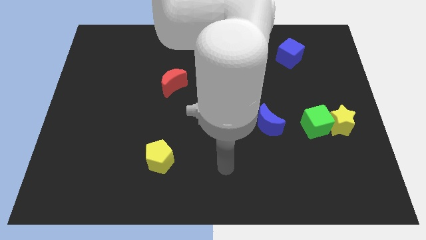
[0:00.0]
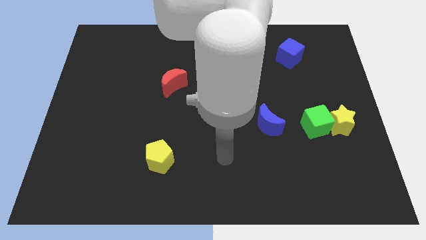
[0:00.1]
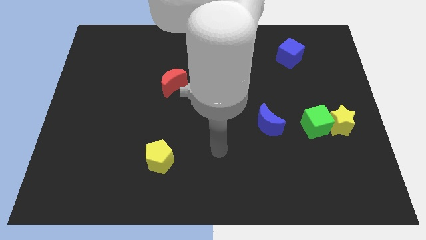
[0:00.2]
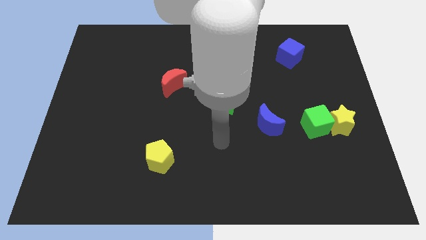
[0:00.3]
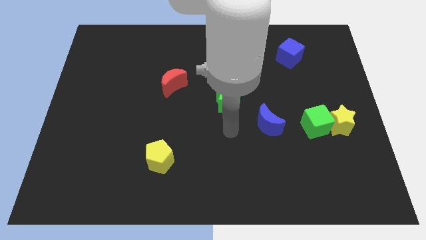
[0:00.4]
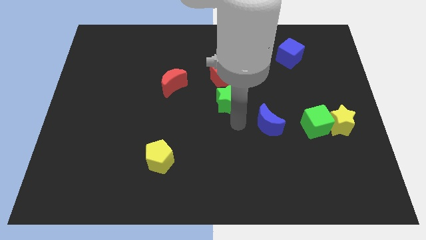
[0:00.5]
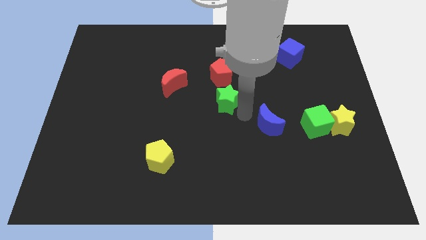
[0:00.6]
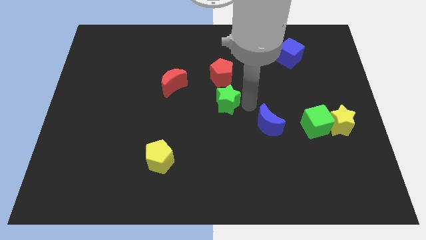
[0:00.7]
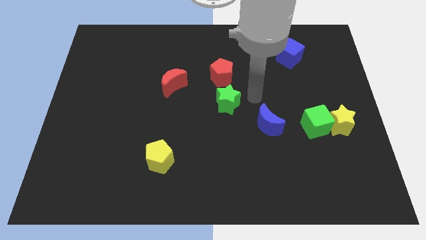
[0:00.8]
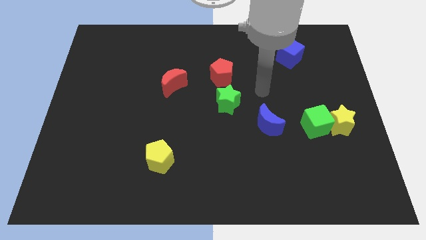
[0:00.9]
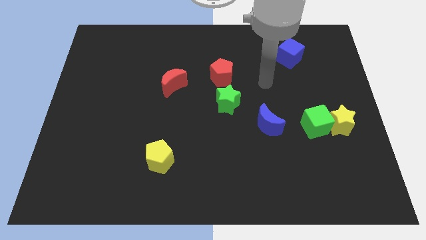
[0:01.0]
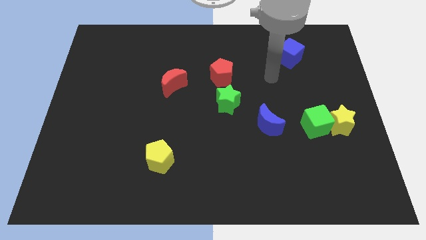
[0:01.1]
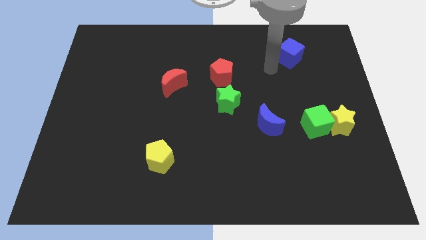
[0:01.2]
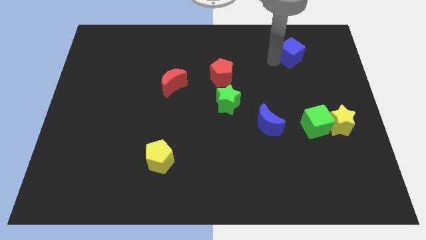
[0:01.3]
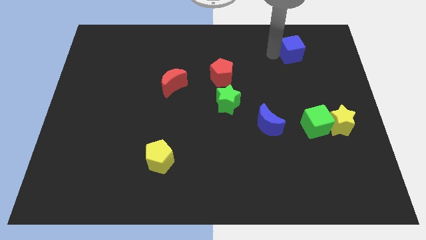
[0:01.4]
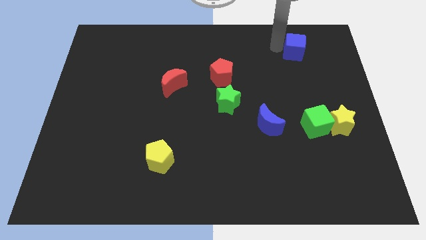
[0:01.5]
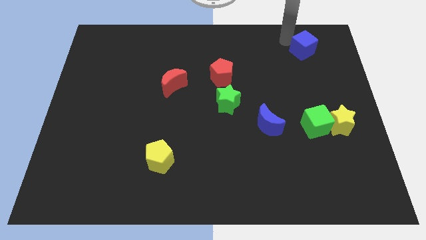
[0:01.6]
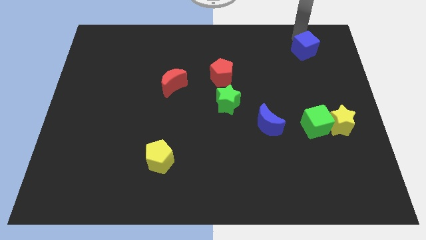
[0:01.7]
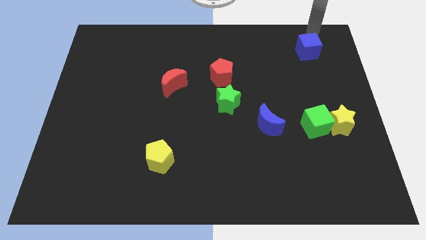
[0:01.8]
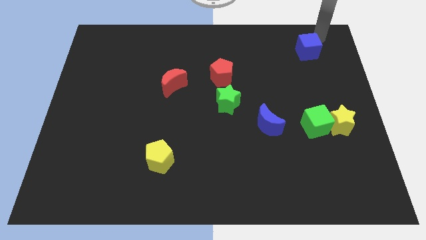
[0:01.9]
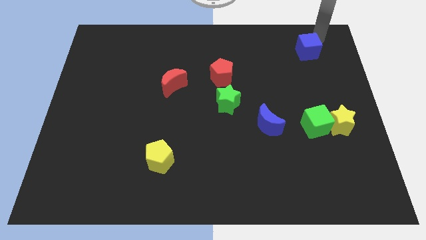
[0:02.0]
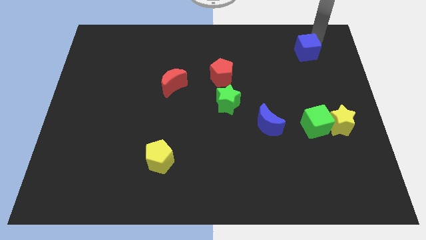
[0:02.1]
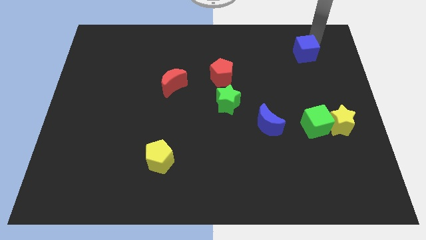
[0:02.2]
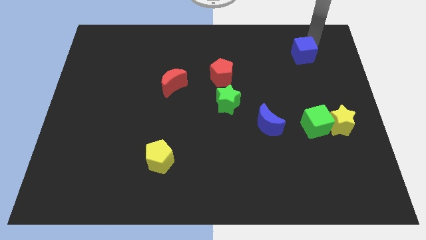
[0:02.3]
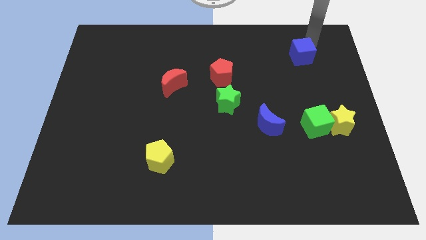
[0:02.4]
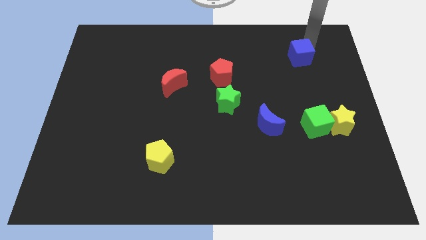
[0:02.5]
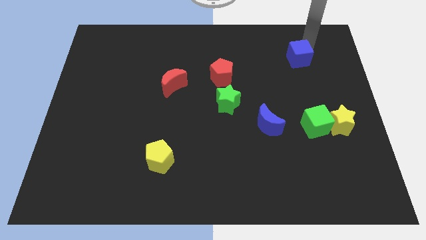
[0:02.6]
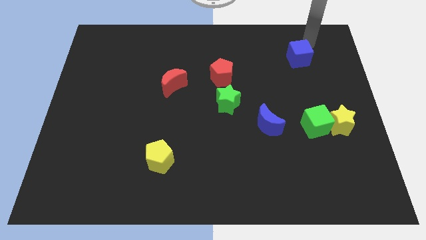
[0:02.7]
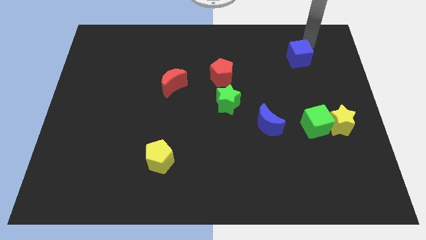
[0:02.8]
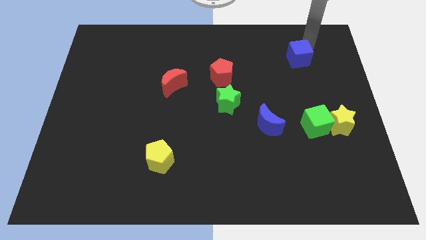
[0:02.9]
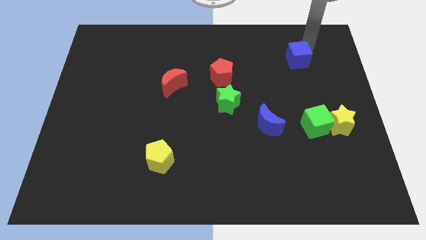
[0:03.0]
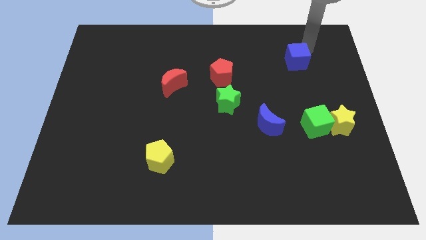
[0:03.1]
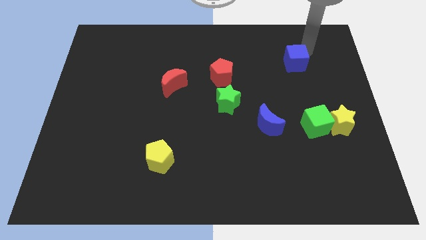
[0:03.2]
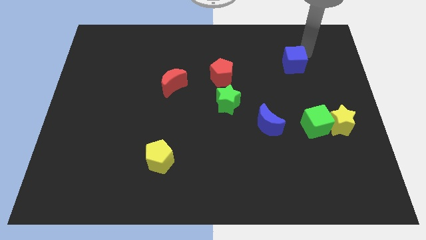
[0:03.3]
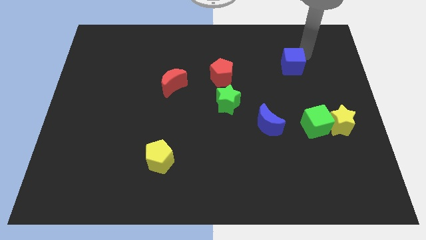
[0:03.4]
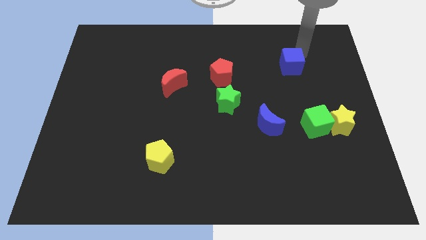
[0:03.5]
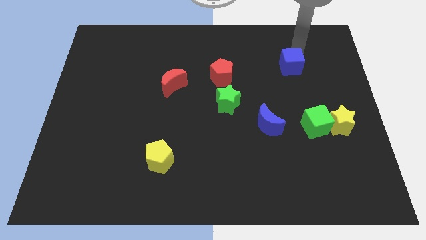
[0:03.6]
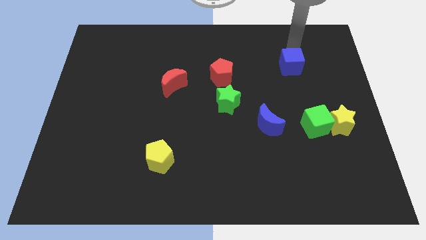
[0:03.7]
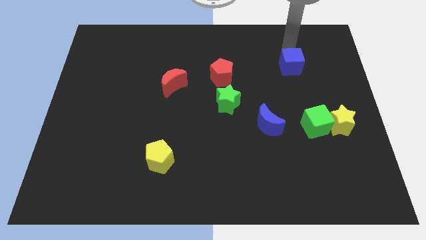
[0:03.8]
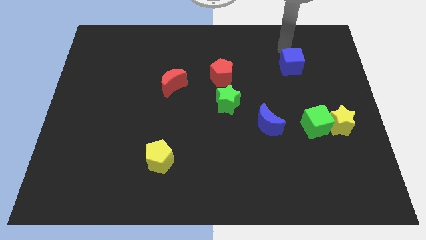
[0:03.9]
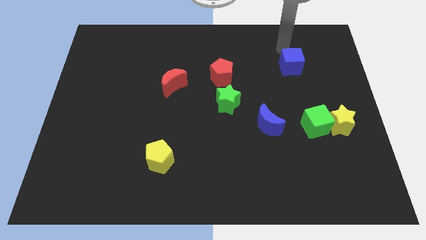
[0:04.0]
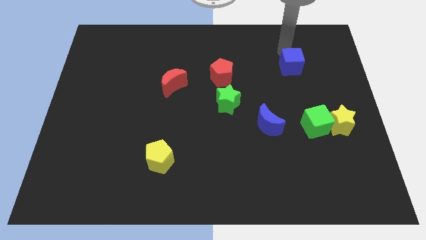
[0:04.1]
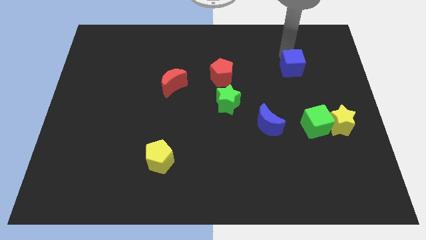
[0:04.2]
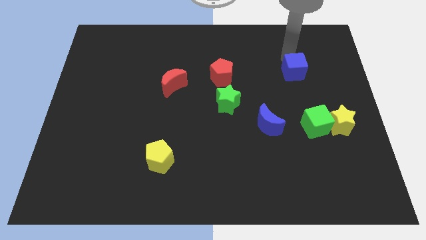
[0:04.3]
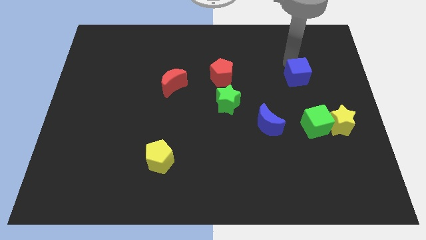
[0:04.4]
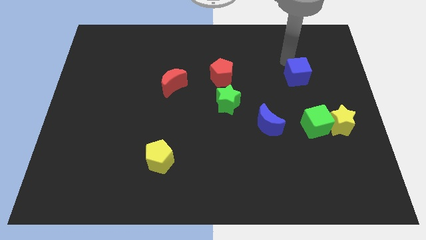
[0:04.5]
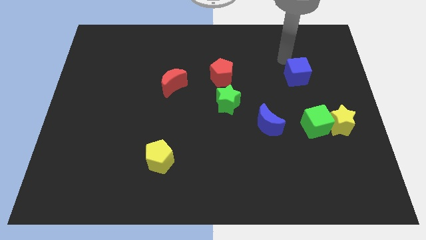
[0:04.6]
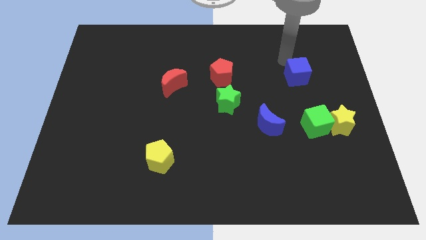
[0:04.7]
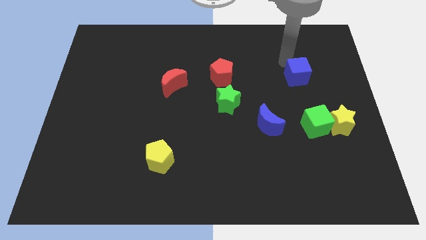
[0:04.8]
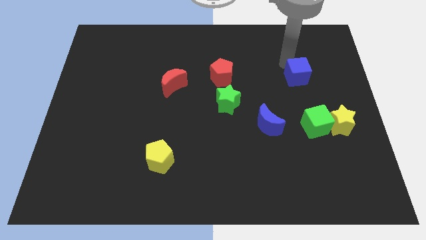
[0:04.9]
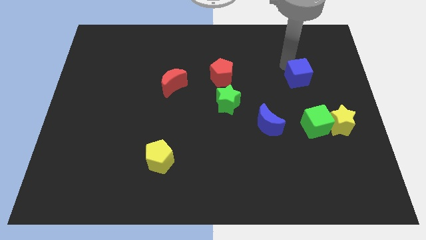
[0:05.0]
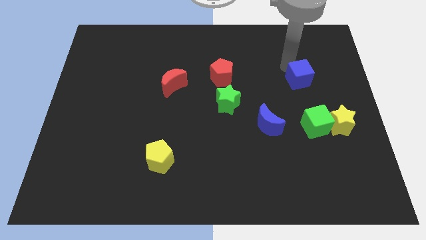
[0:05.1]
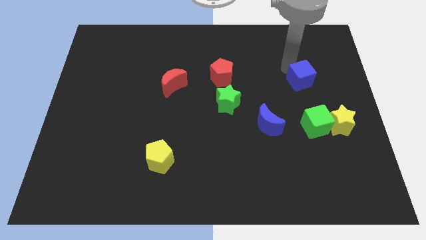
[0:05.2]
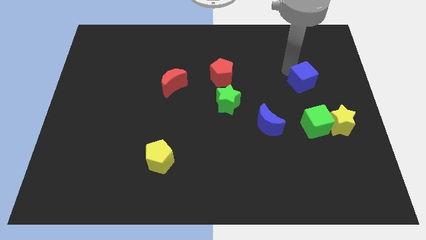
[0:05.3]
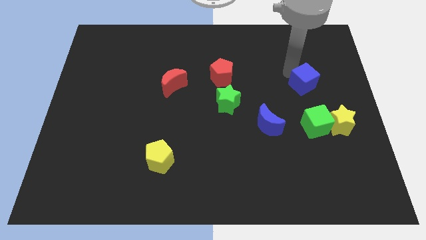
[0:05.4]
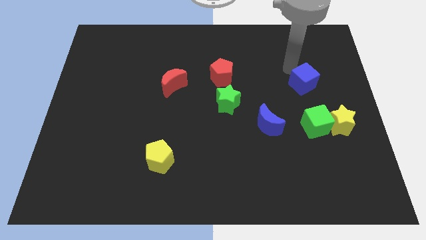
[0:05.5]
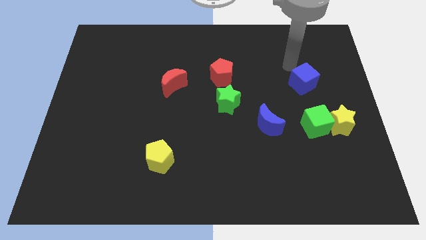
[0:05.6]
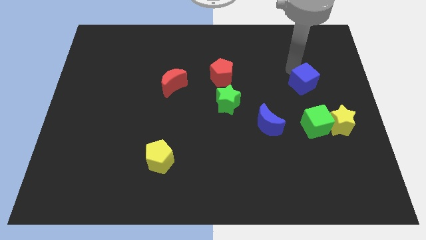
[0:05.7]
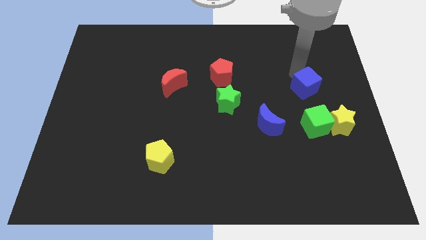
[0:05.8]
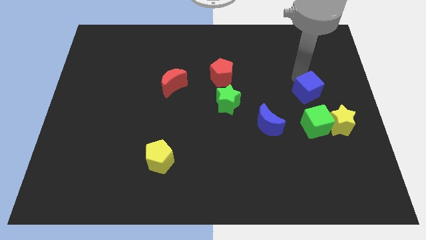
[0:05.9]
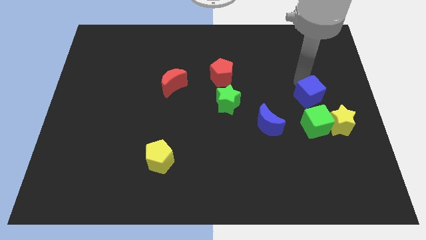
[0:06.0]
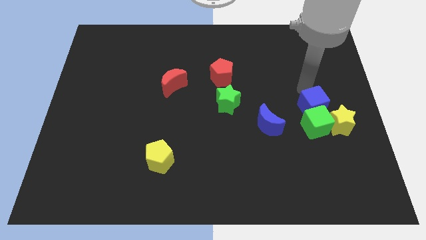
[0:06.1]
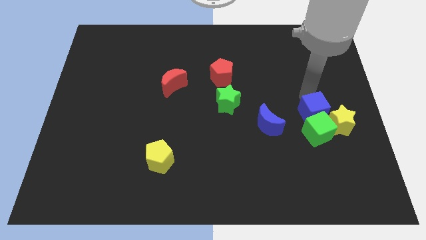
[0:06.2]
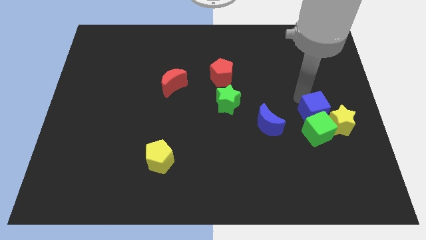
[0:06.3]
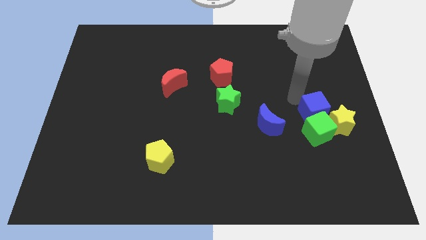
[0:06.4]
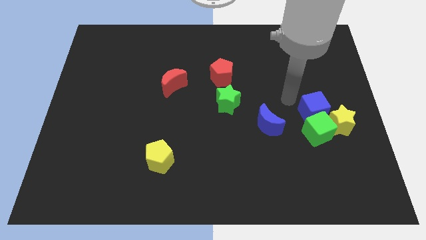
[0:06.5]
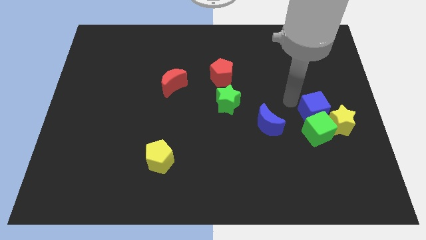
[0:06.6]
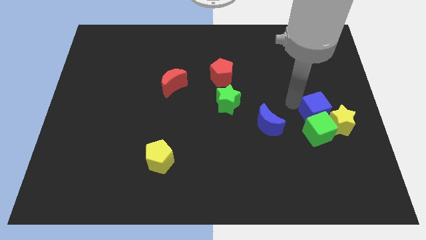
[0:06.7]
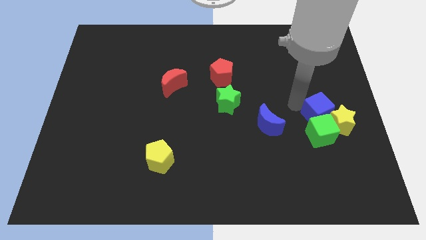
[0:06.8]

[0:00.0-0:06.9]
slide the blue cube towards the yellow star

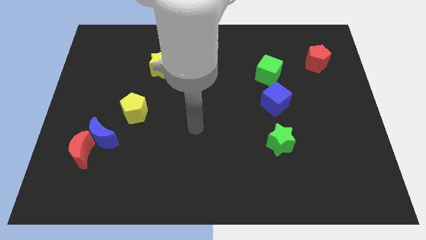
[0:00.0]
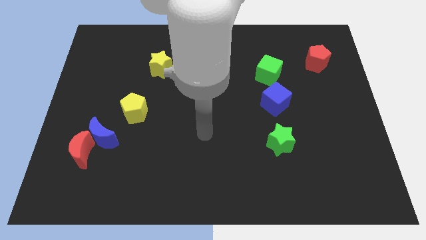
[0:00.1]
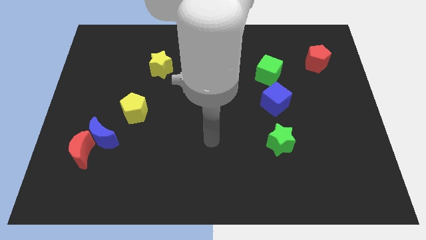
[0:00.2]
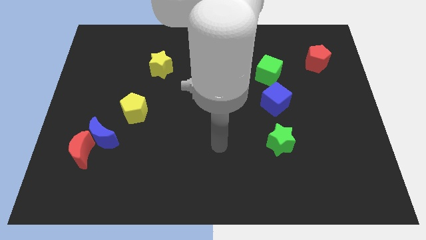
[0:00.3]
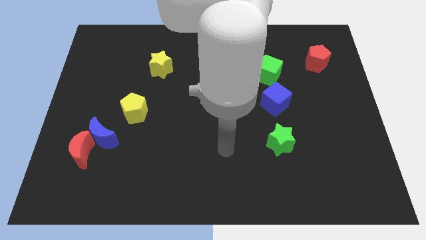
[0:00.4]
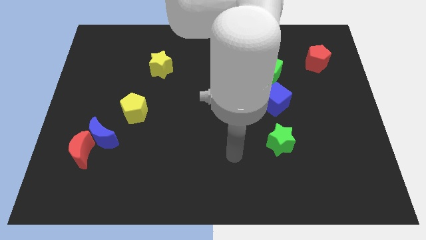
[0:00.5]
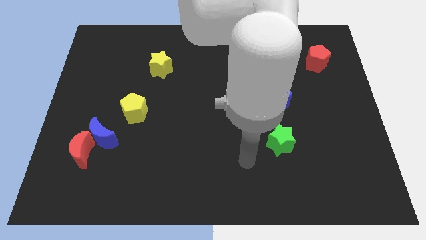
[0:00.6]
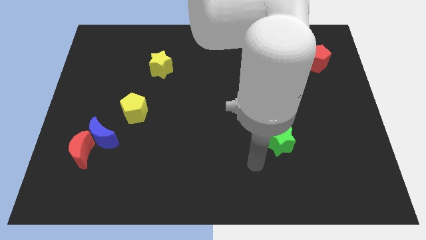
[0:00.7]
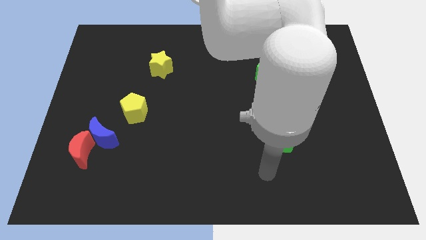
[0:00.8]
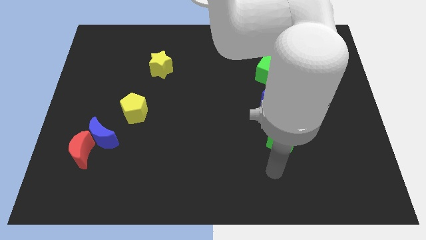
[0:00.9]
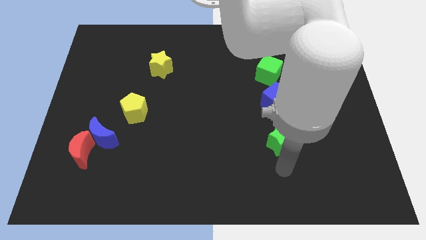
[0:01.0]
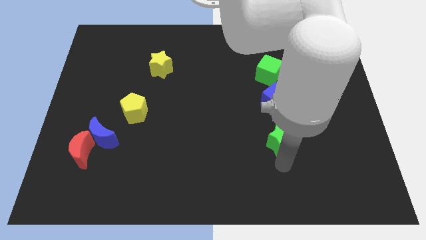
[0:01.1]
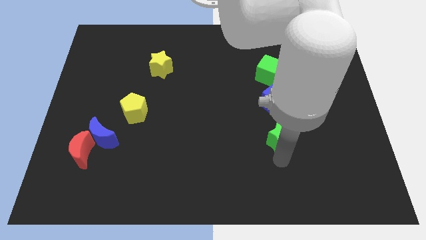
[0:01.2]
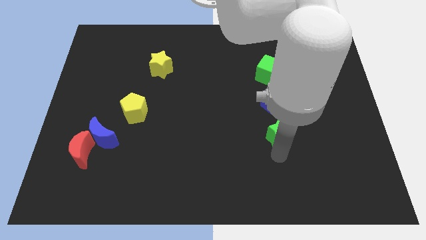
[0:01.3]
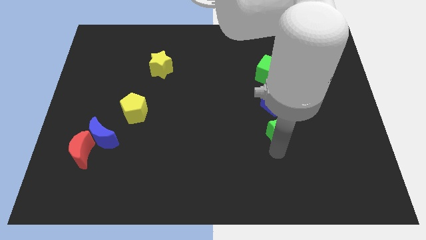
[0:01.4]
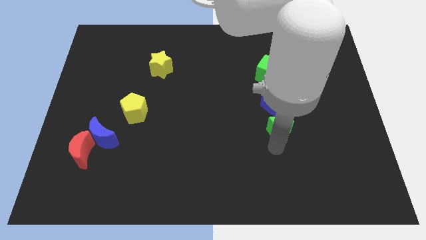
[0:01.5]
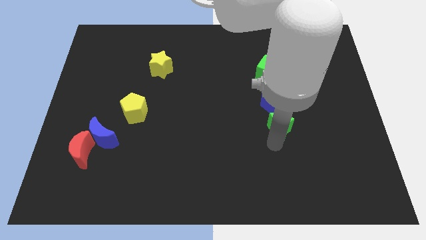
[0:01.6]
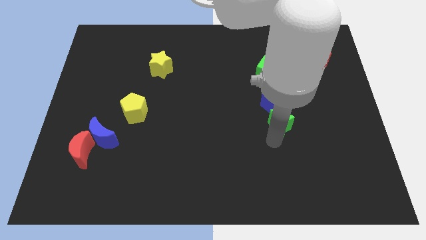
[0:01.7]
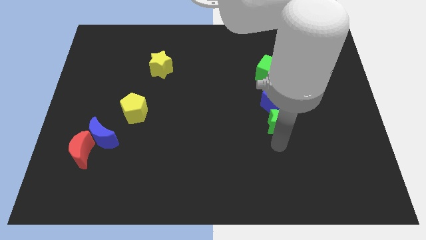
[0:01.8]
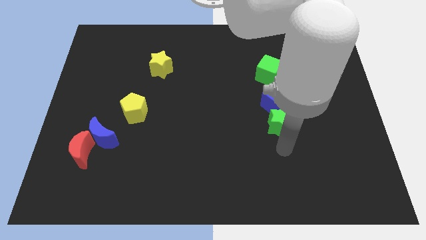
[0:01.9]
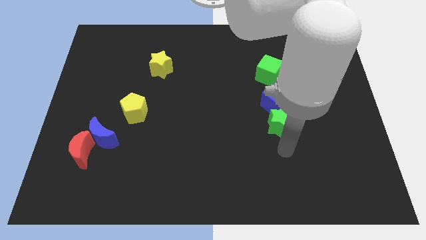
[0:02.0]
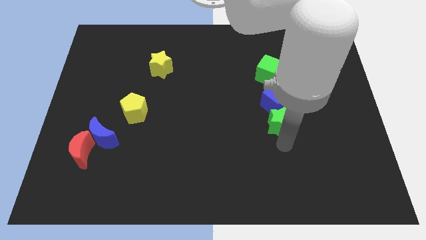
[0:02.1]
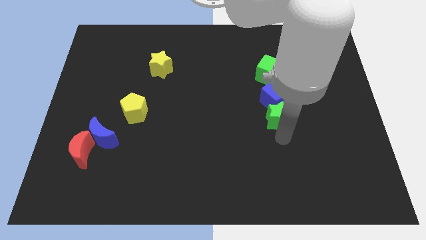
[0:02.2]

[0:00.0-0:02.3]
move the green star to the blue cube
